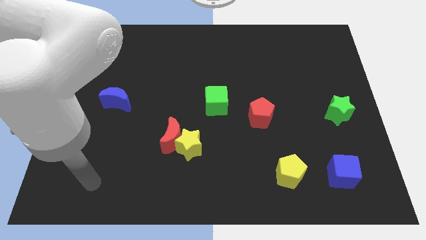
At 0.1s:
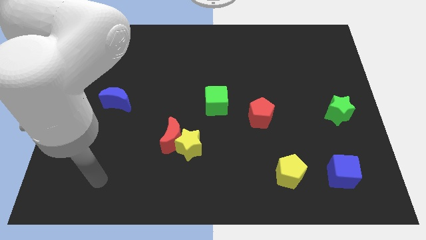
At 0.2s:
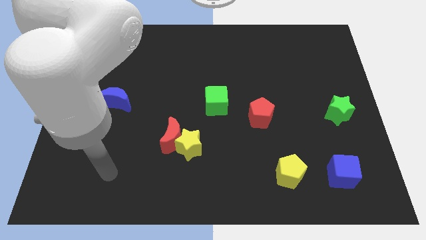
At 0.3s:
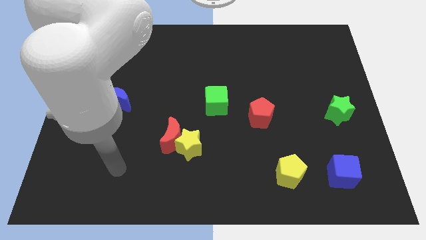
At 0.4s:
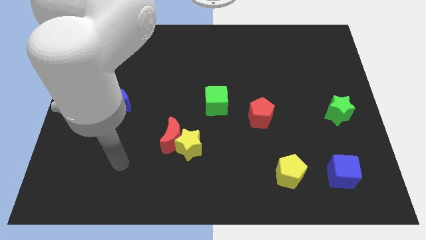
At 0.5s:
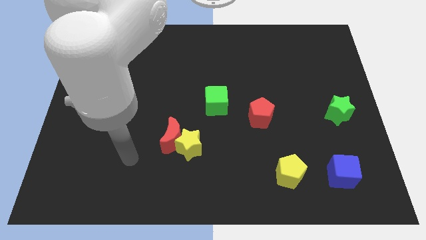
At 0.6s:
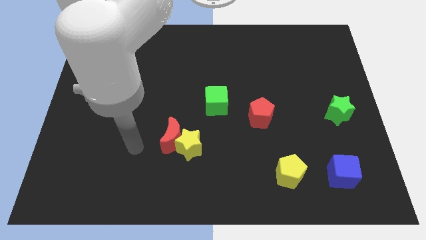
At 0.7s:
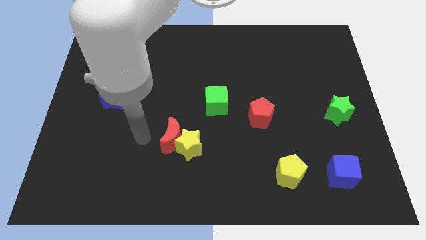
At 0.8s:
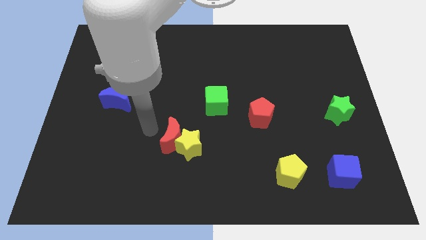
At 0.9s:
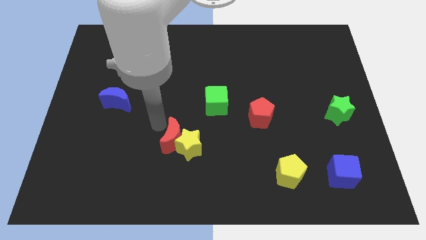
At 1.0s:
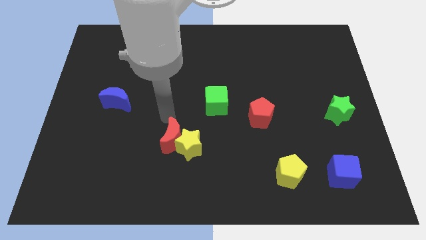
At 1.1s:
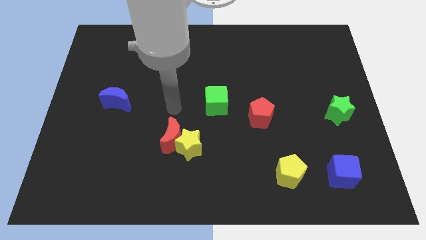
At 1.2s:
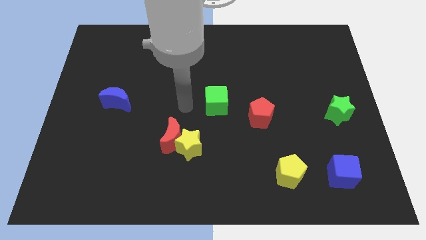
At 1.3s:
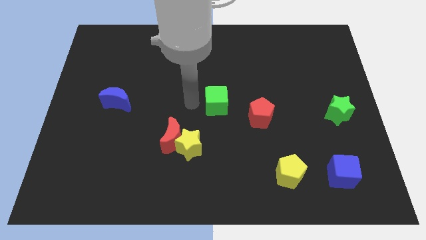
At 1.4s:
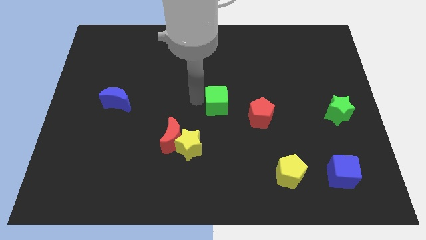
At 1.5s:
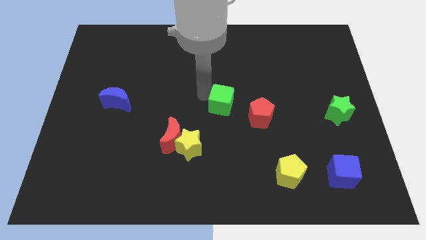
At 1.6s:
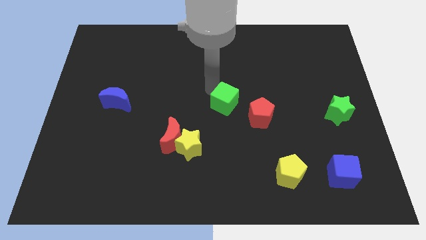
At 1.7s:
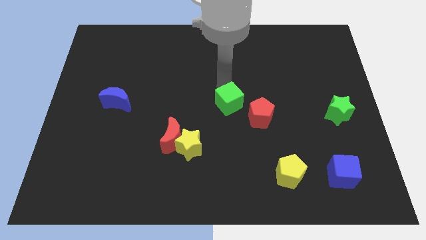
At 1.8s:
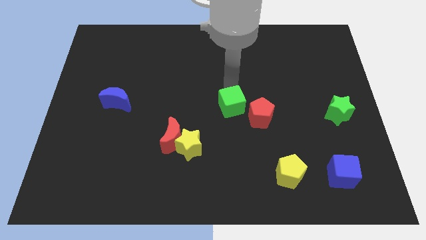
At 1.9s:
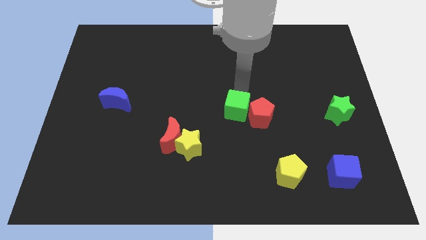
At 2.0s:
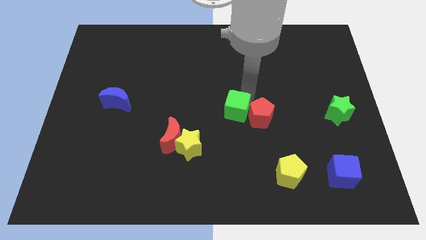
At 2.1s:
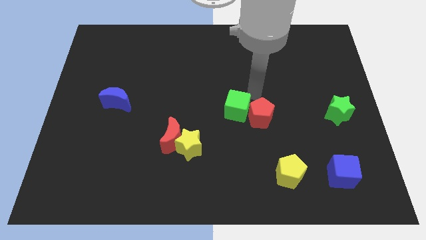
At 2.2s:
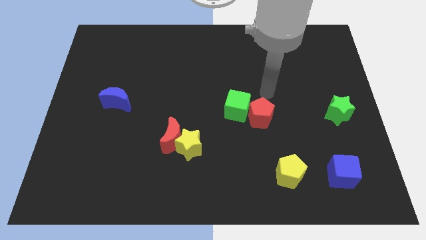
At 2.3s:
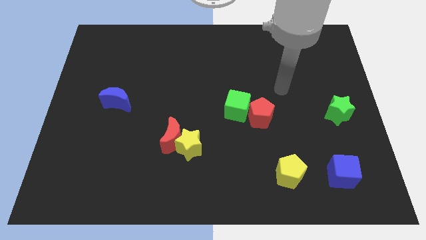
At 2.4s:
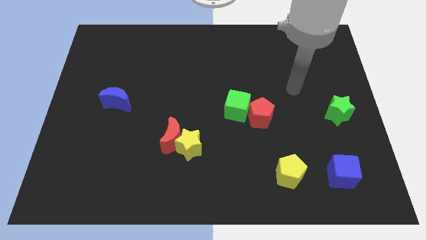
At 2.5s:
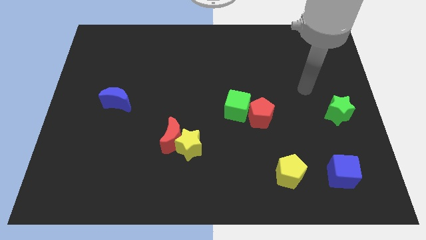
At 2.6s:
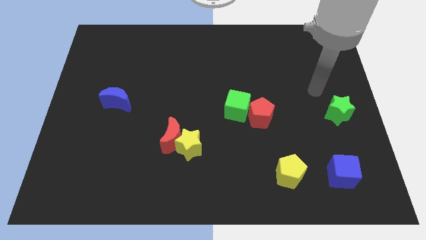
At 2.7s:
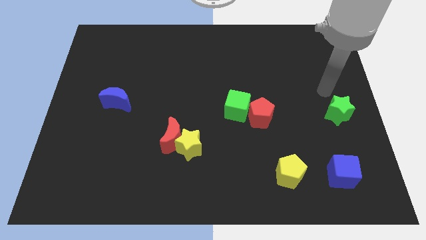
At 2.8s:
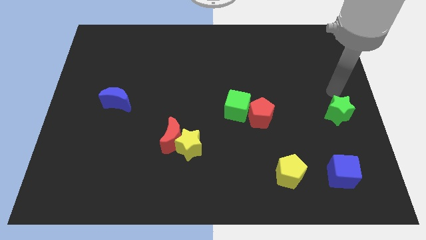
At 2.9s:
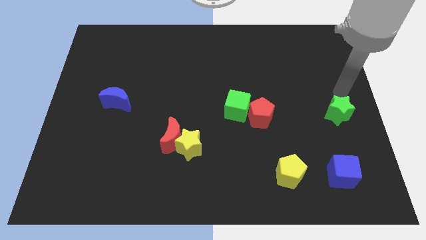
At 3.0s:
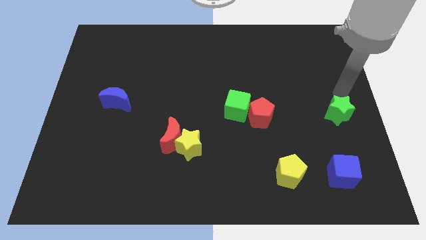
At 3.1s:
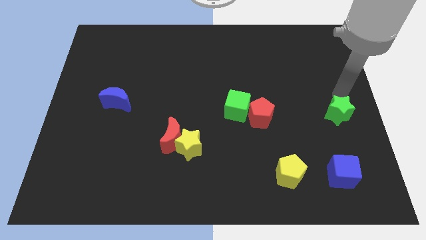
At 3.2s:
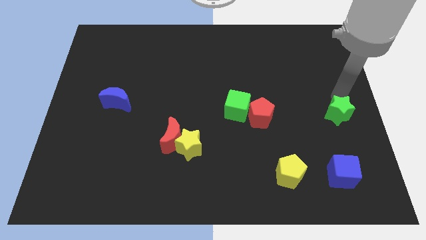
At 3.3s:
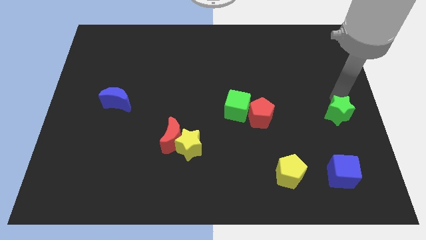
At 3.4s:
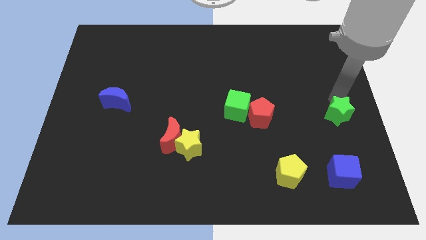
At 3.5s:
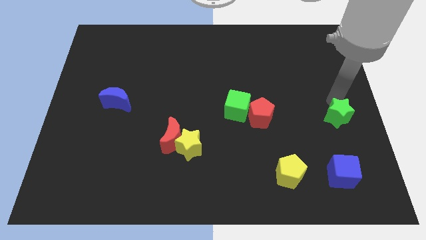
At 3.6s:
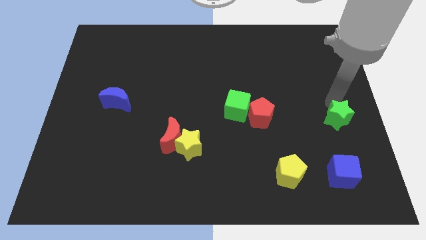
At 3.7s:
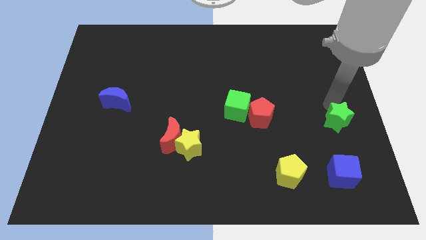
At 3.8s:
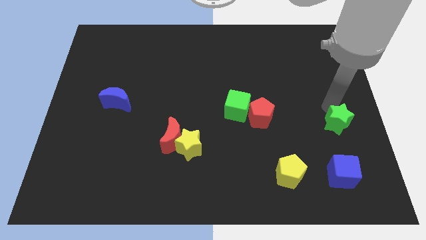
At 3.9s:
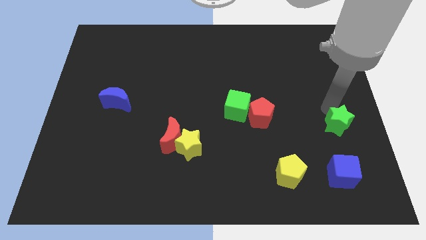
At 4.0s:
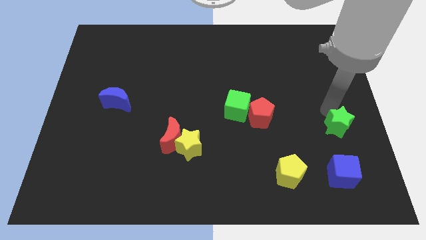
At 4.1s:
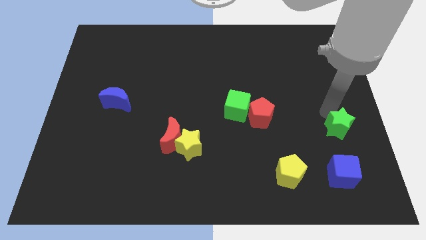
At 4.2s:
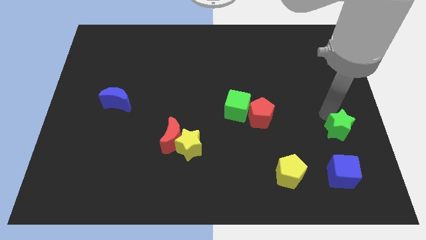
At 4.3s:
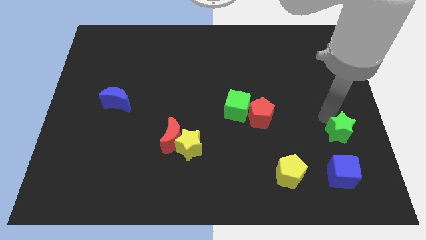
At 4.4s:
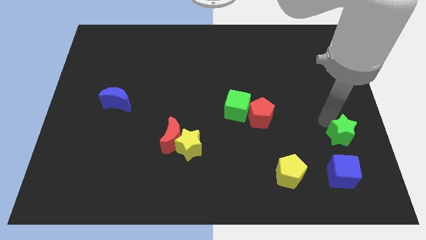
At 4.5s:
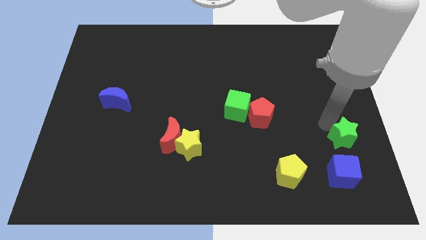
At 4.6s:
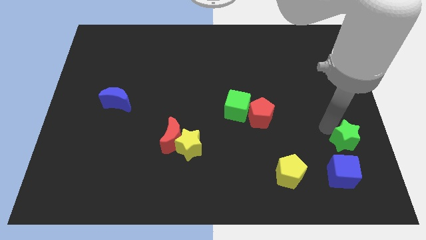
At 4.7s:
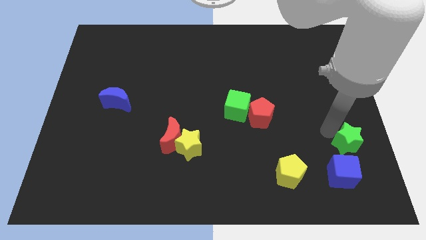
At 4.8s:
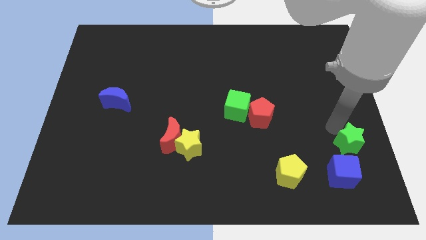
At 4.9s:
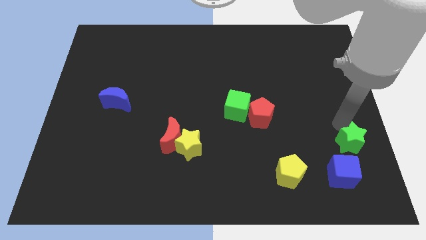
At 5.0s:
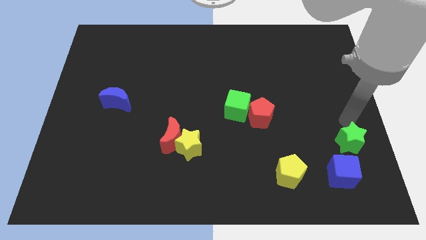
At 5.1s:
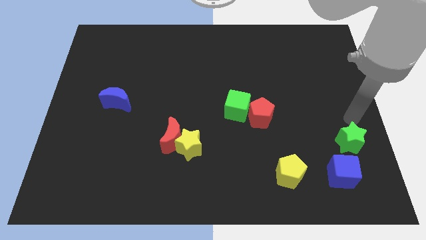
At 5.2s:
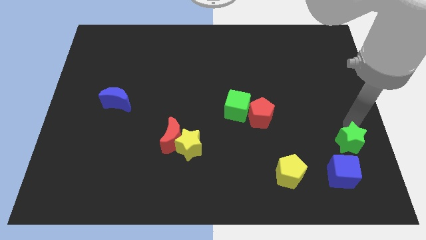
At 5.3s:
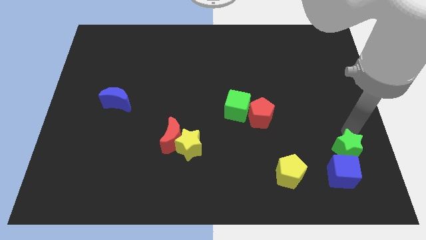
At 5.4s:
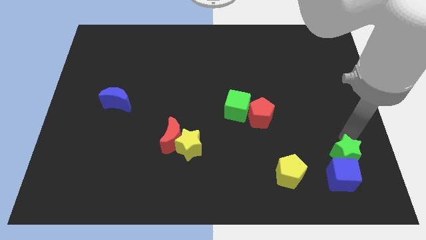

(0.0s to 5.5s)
put the green star next to the blue cube

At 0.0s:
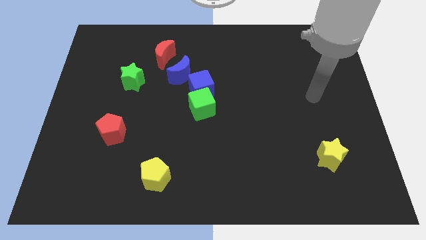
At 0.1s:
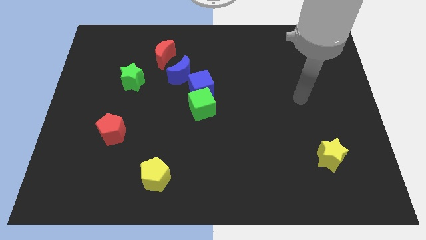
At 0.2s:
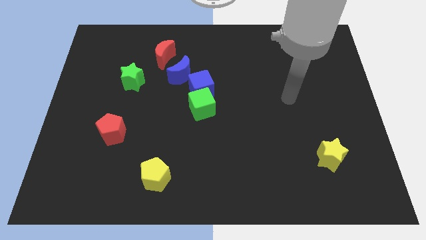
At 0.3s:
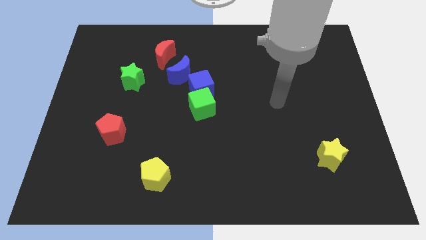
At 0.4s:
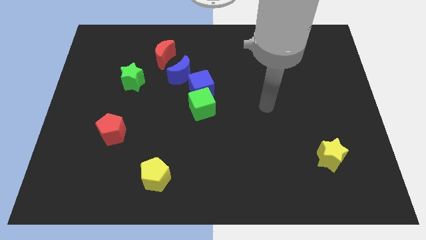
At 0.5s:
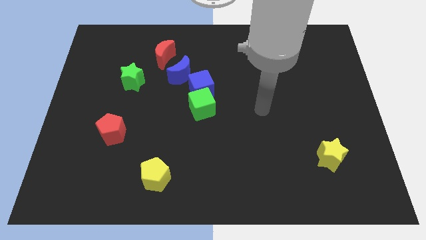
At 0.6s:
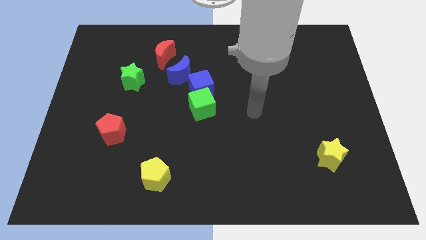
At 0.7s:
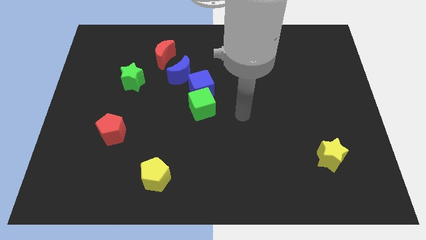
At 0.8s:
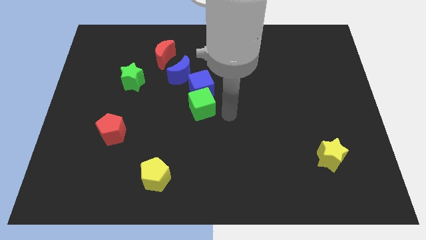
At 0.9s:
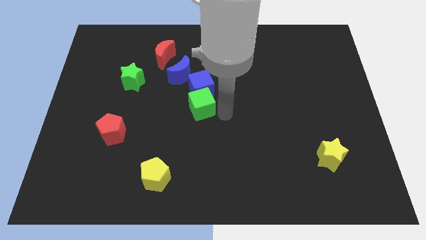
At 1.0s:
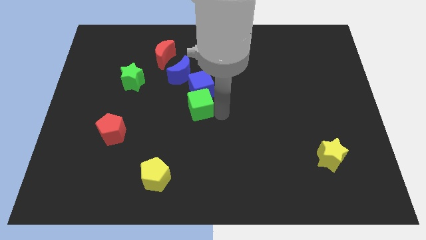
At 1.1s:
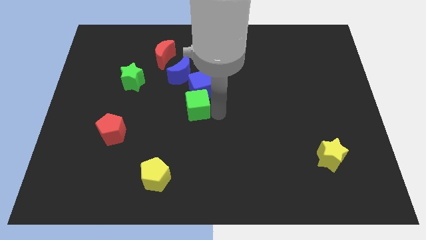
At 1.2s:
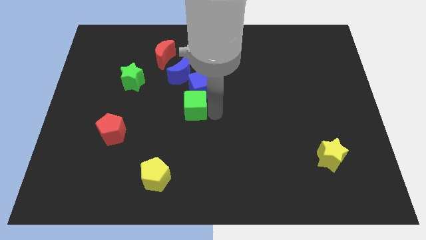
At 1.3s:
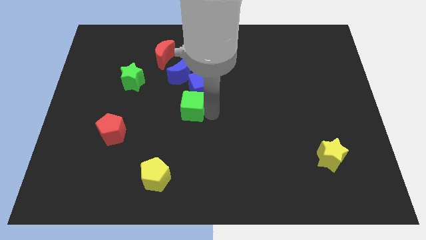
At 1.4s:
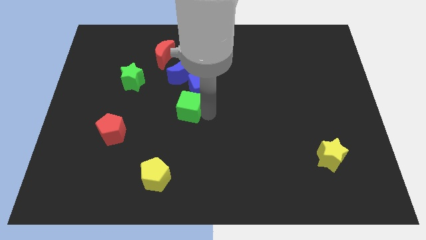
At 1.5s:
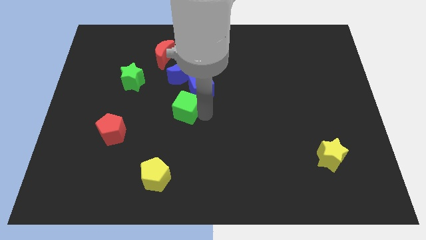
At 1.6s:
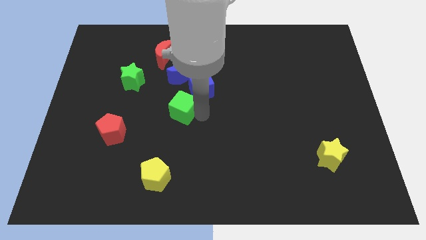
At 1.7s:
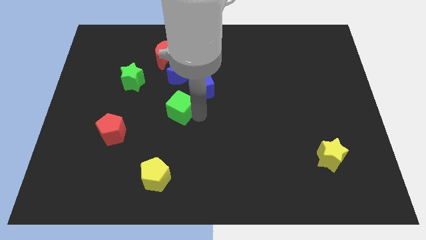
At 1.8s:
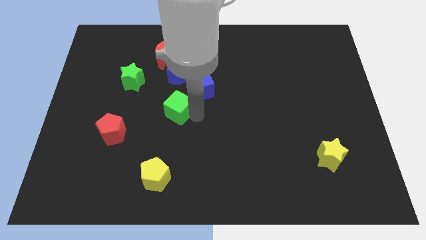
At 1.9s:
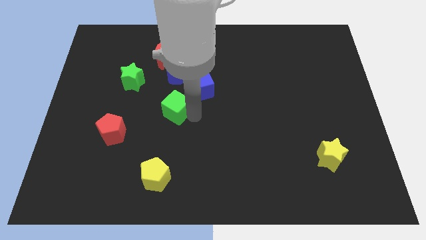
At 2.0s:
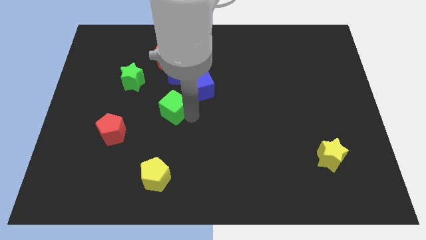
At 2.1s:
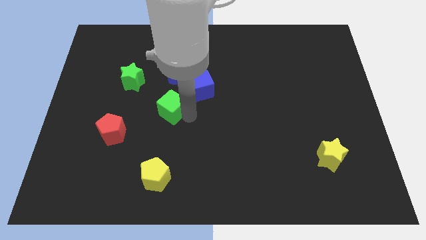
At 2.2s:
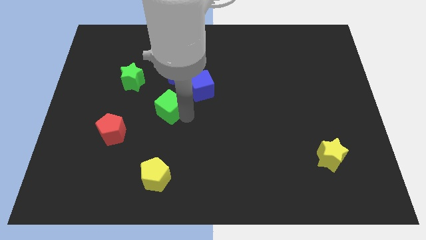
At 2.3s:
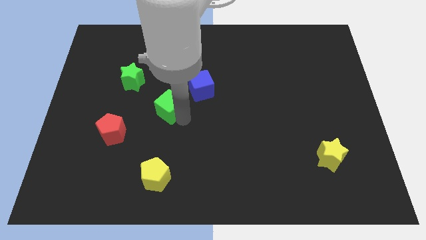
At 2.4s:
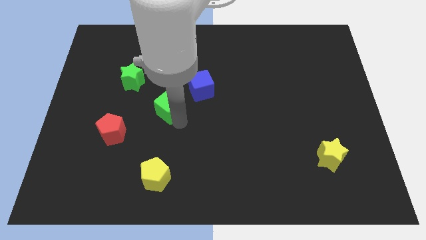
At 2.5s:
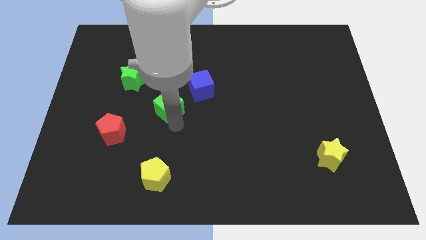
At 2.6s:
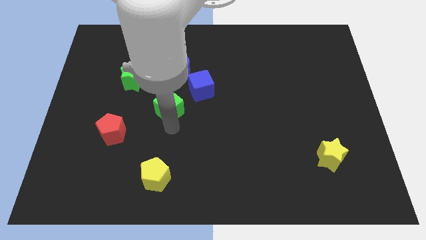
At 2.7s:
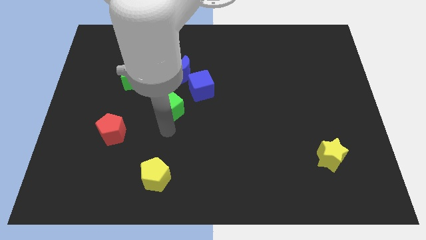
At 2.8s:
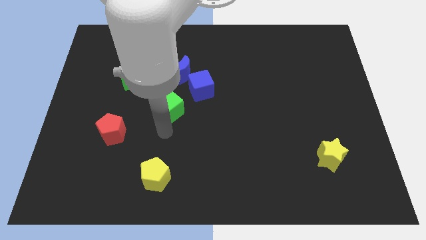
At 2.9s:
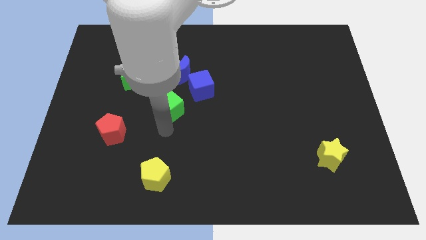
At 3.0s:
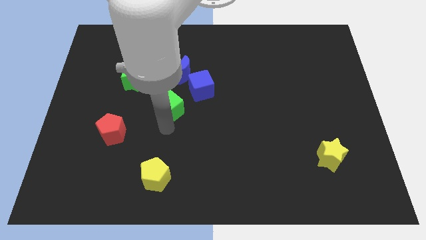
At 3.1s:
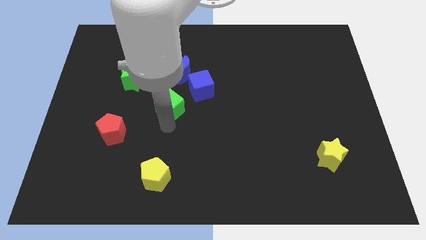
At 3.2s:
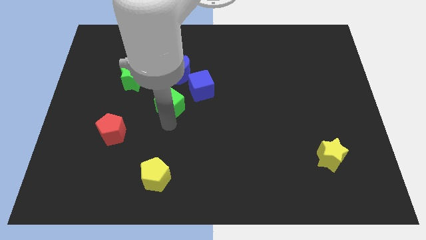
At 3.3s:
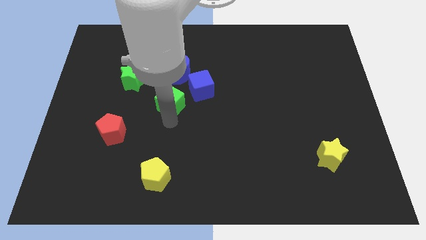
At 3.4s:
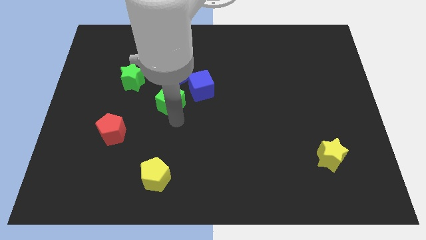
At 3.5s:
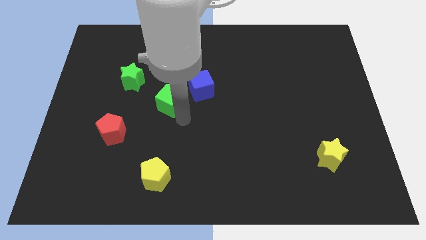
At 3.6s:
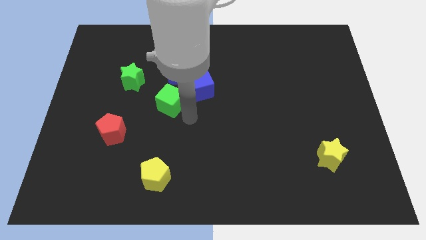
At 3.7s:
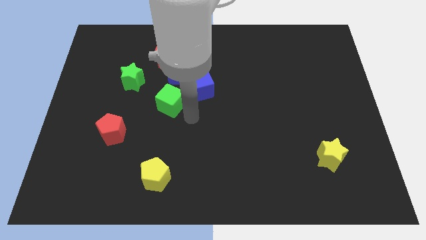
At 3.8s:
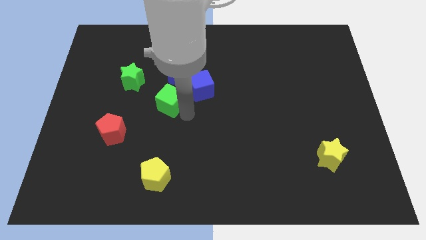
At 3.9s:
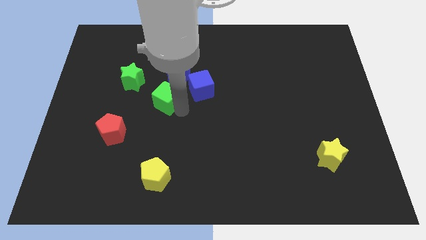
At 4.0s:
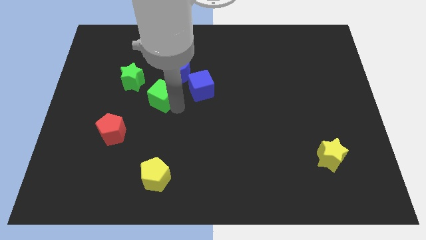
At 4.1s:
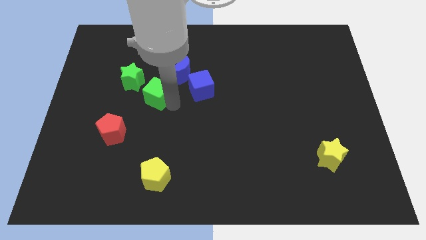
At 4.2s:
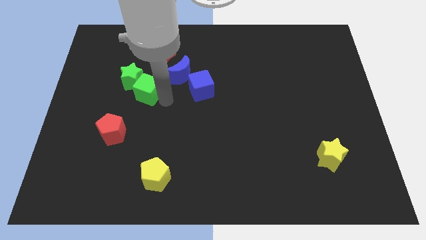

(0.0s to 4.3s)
slide the green cube close to the green star
